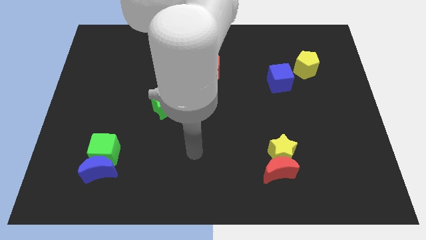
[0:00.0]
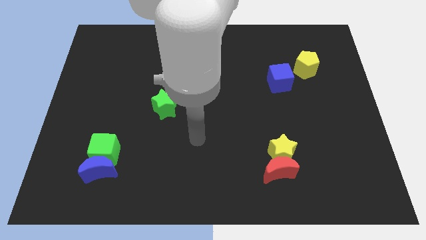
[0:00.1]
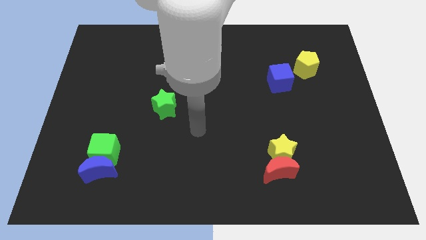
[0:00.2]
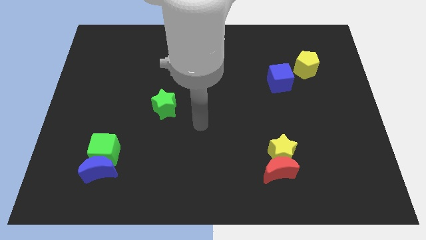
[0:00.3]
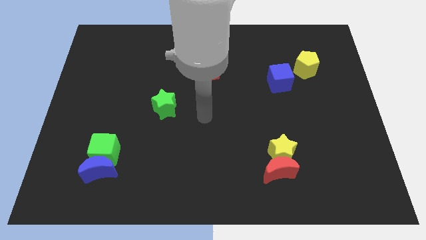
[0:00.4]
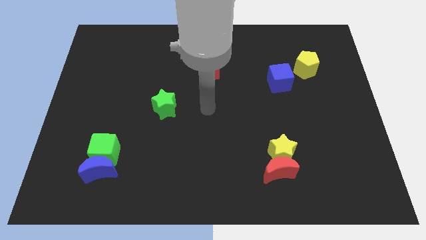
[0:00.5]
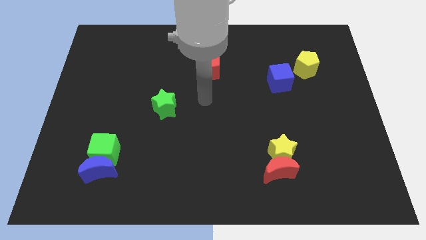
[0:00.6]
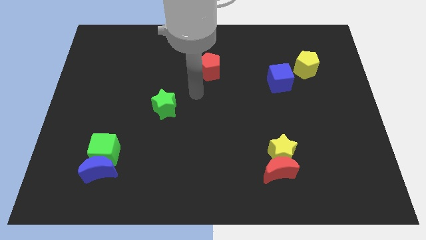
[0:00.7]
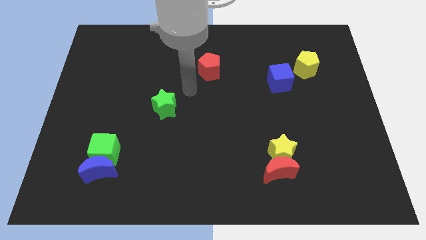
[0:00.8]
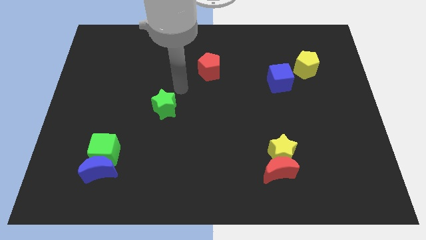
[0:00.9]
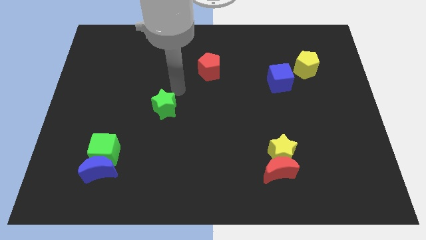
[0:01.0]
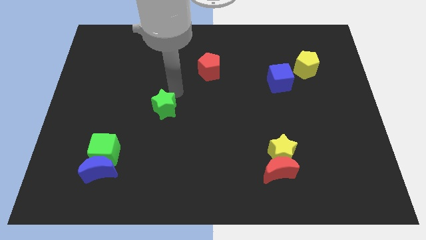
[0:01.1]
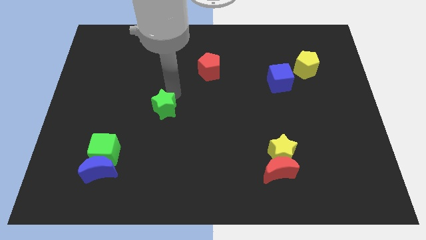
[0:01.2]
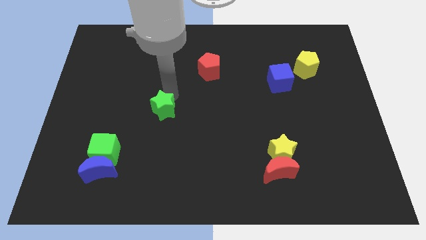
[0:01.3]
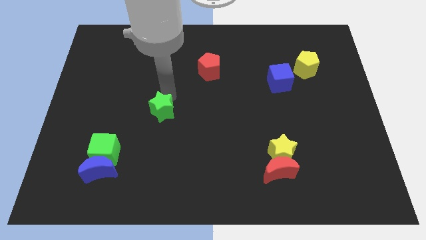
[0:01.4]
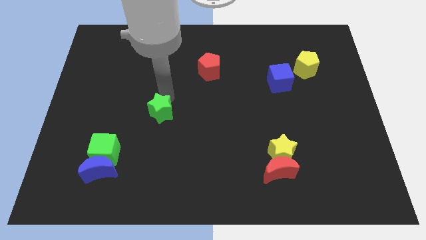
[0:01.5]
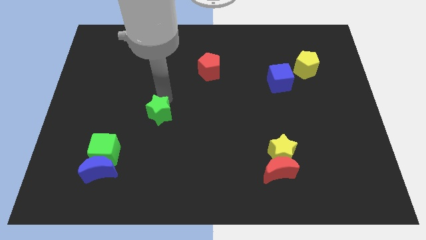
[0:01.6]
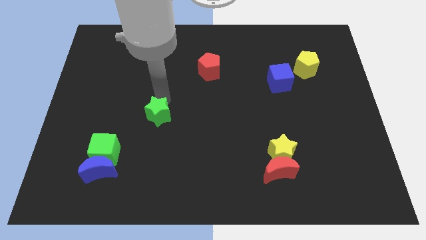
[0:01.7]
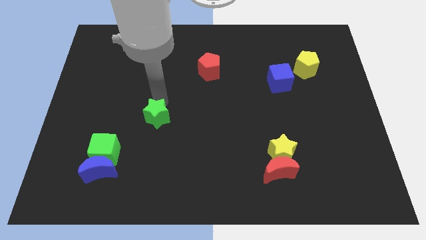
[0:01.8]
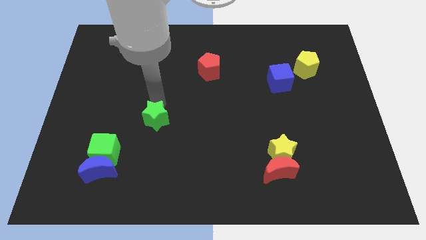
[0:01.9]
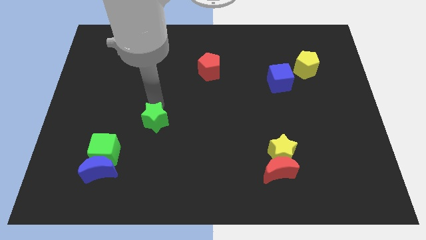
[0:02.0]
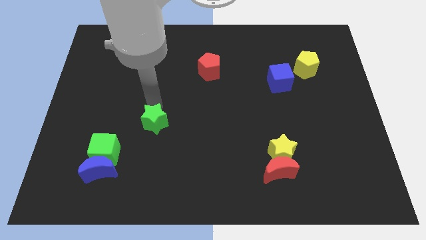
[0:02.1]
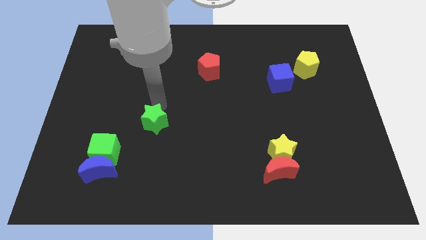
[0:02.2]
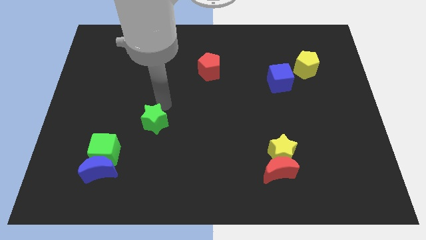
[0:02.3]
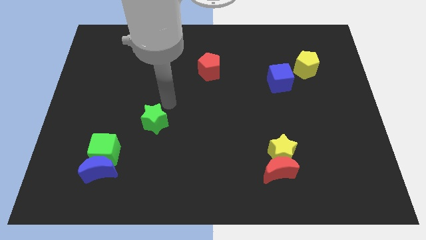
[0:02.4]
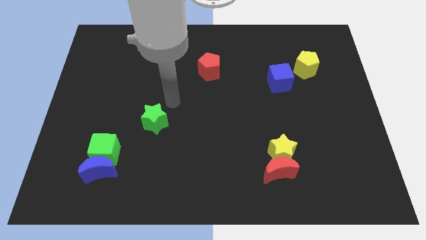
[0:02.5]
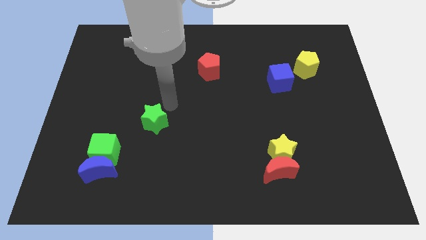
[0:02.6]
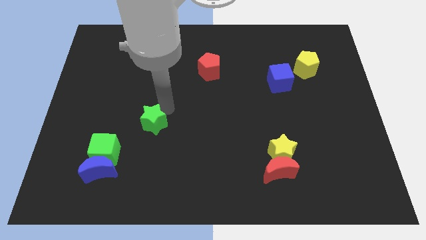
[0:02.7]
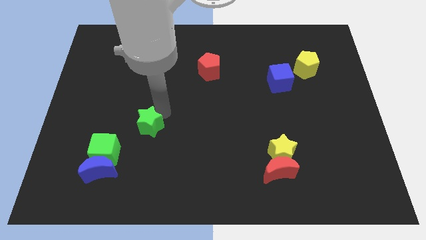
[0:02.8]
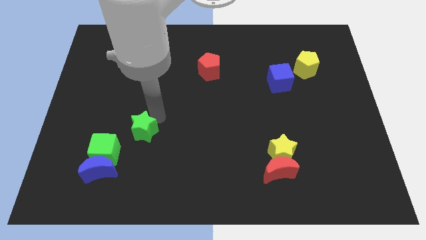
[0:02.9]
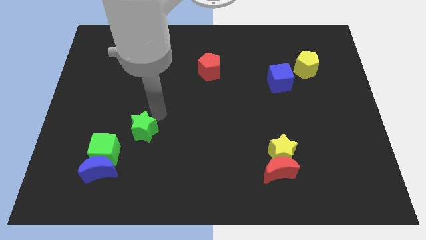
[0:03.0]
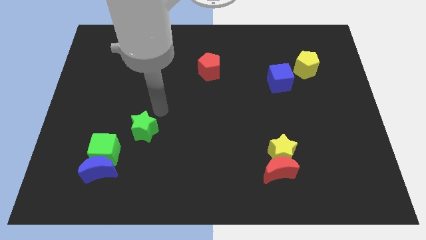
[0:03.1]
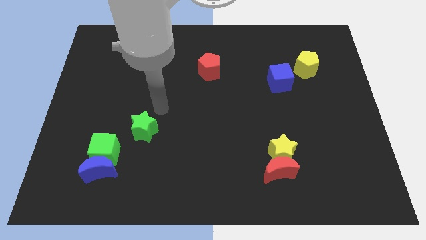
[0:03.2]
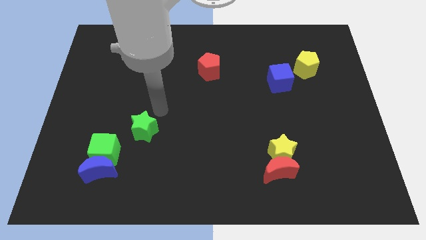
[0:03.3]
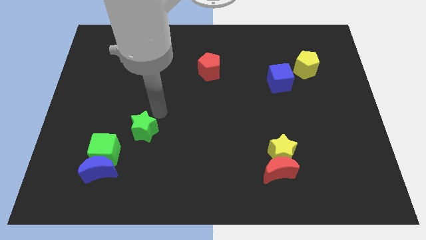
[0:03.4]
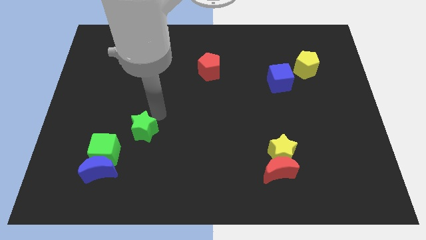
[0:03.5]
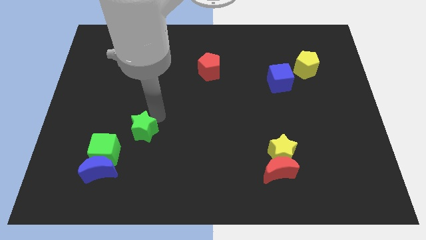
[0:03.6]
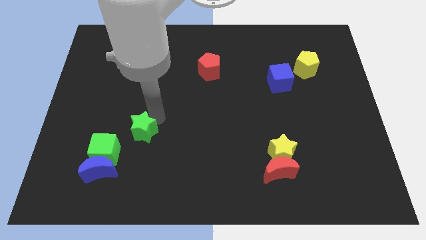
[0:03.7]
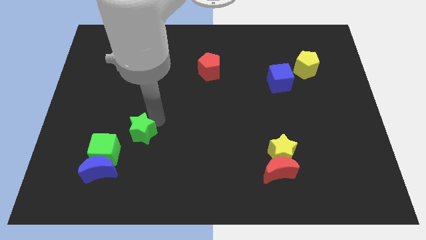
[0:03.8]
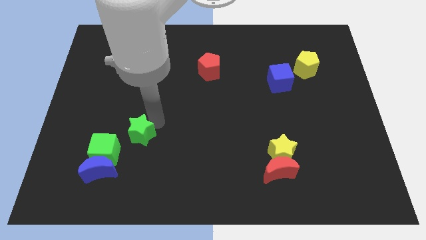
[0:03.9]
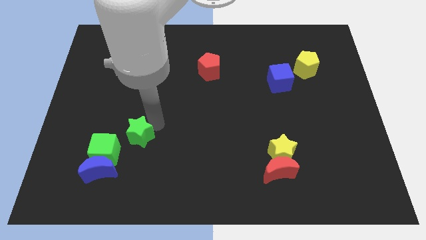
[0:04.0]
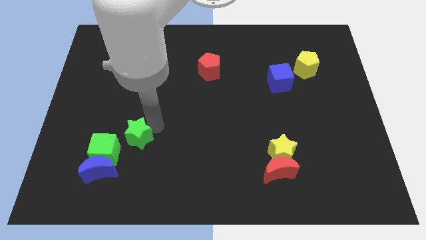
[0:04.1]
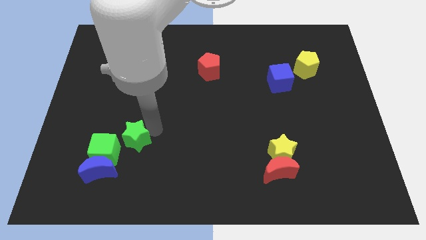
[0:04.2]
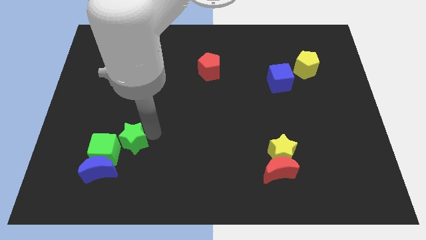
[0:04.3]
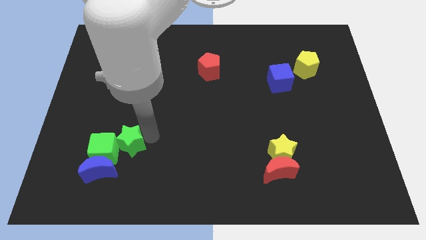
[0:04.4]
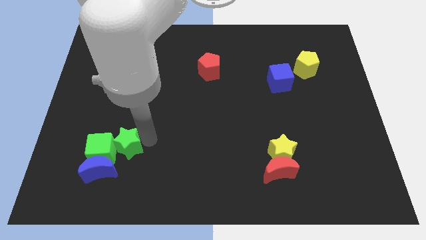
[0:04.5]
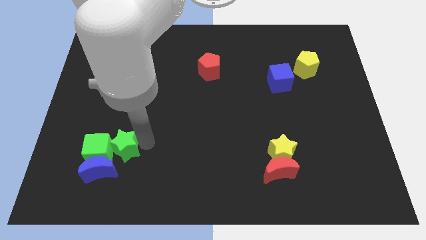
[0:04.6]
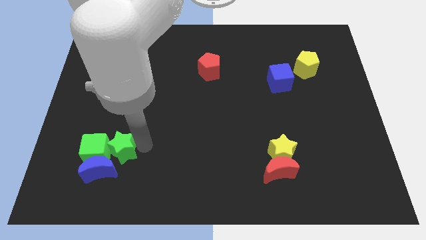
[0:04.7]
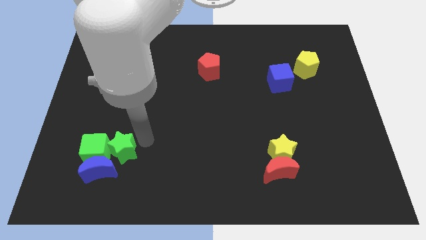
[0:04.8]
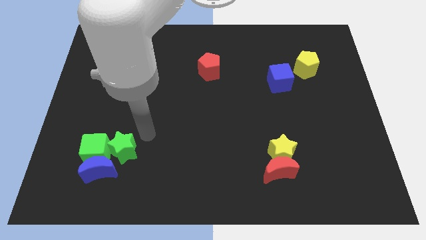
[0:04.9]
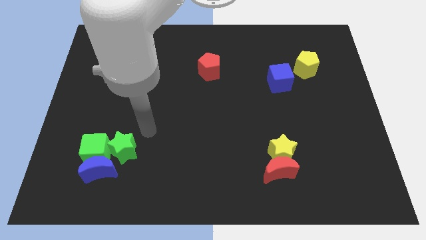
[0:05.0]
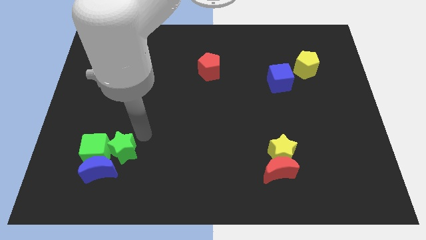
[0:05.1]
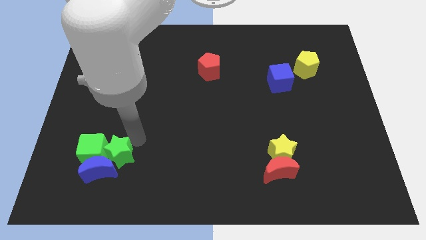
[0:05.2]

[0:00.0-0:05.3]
push the green star next to the blue moon

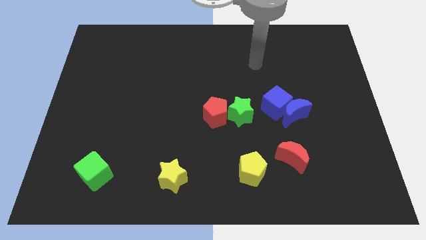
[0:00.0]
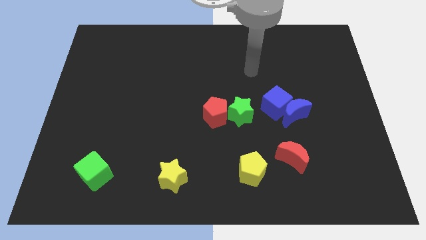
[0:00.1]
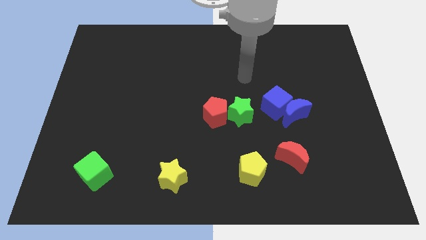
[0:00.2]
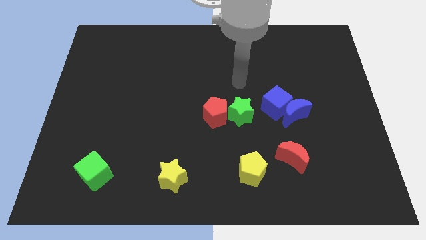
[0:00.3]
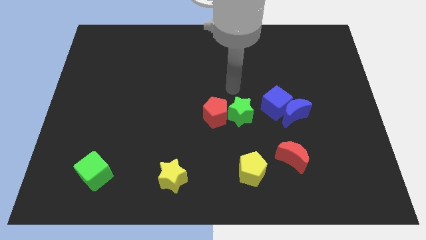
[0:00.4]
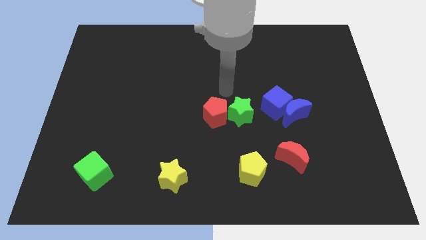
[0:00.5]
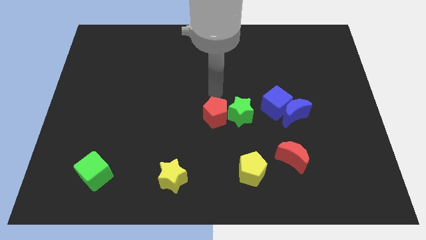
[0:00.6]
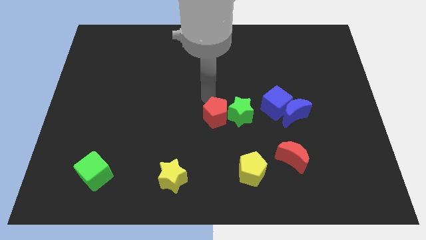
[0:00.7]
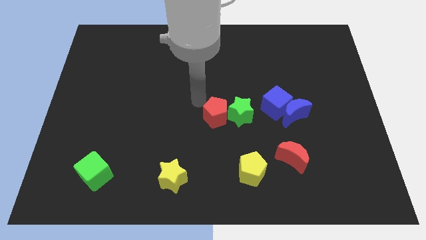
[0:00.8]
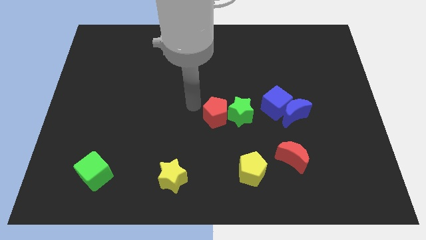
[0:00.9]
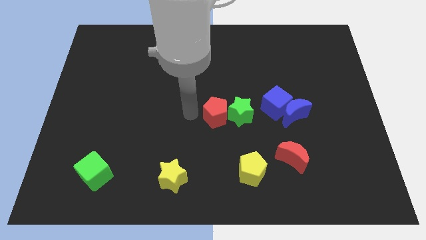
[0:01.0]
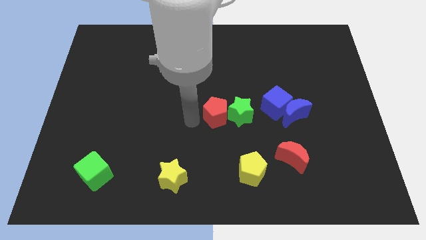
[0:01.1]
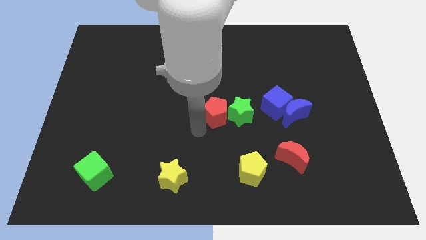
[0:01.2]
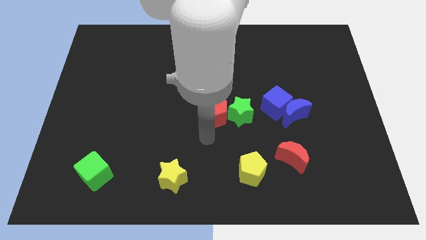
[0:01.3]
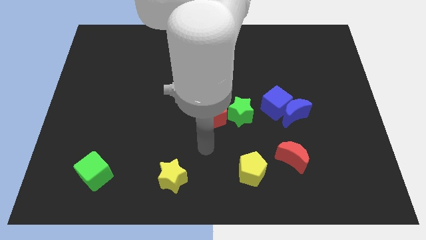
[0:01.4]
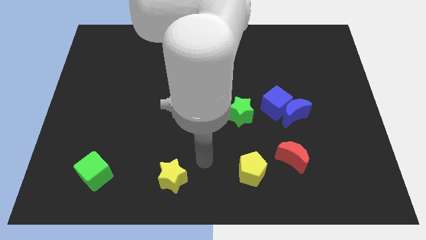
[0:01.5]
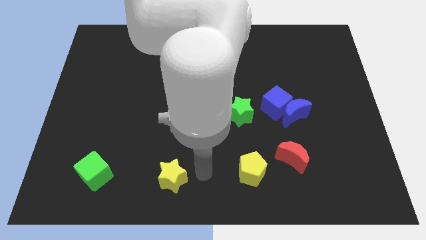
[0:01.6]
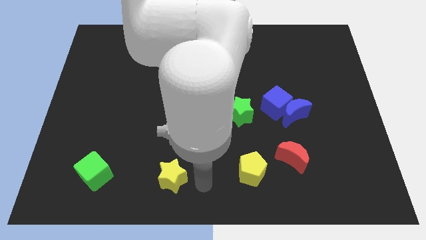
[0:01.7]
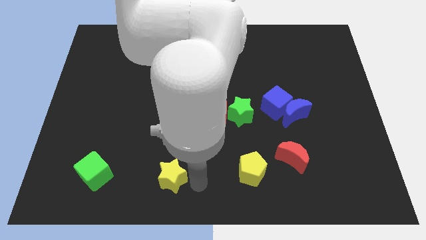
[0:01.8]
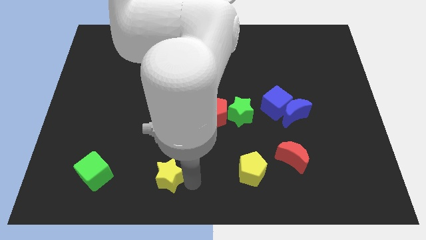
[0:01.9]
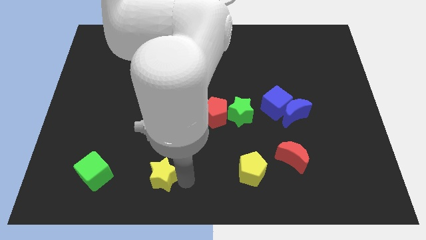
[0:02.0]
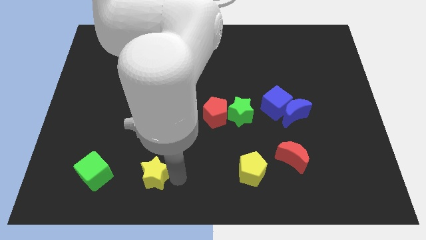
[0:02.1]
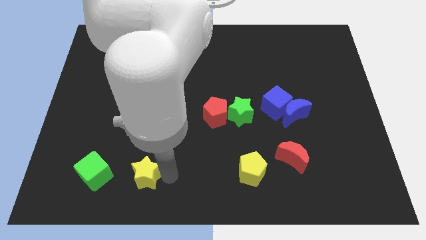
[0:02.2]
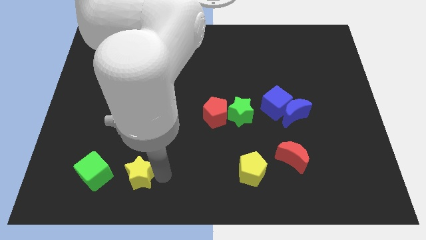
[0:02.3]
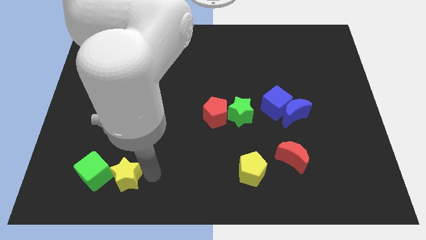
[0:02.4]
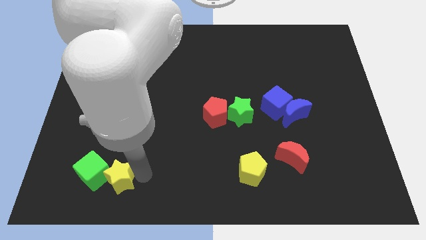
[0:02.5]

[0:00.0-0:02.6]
push the yellow star close to the green cube
